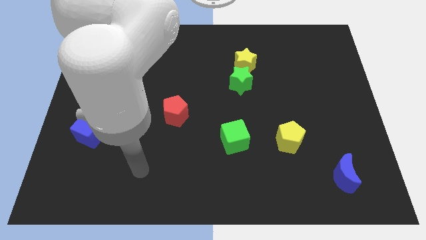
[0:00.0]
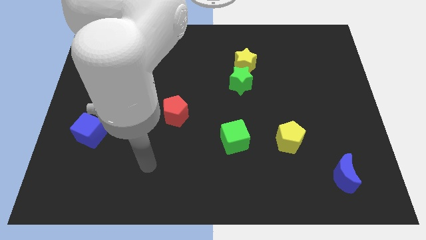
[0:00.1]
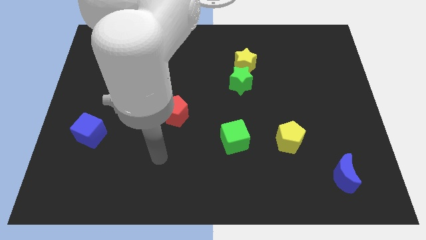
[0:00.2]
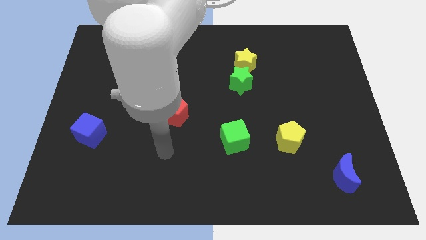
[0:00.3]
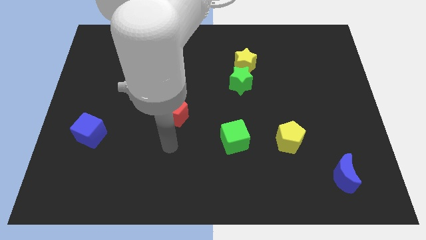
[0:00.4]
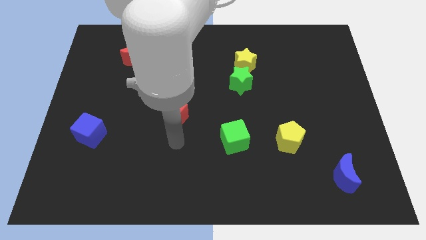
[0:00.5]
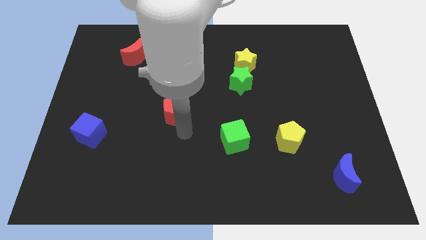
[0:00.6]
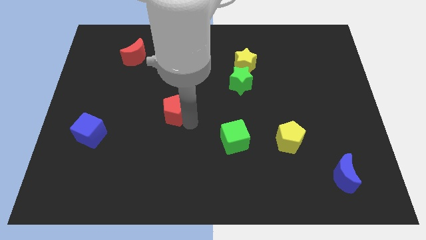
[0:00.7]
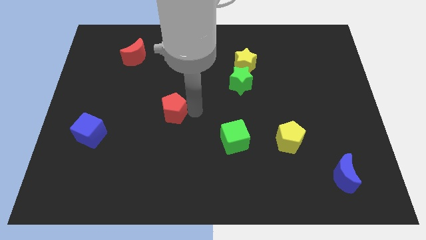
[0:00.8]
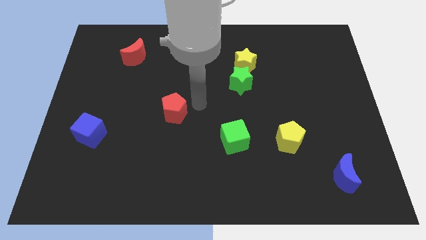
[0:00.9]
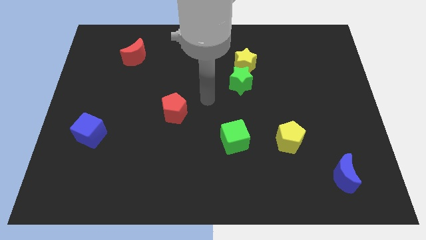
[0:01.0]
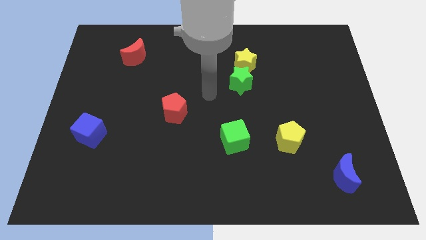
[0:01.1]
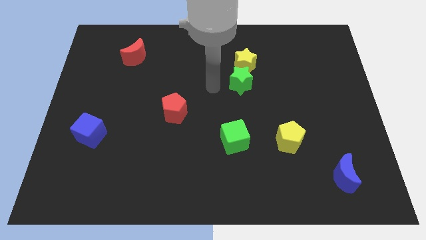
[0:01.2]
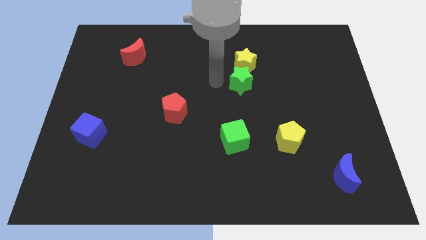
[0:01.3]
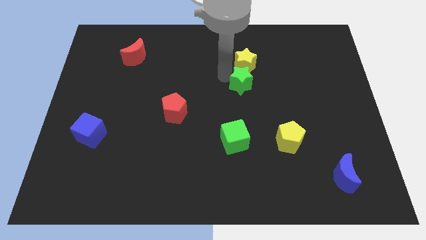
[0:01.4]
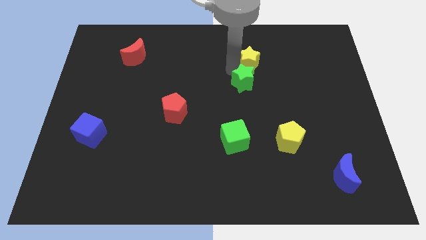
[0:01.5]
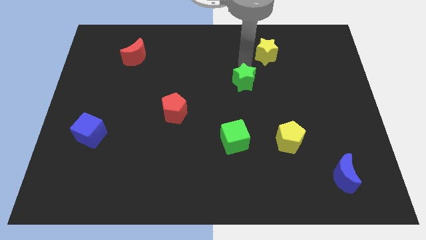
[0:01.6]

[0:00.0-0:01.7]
pull the green star apart from the yellow star

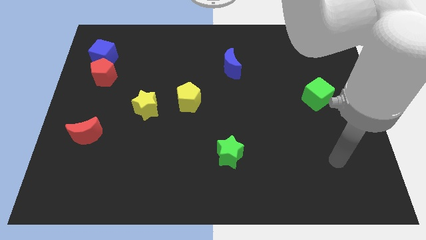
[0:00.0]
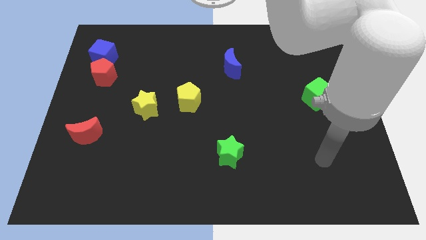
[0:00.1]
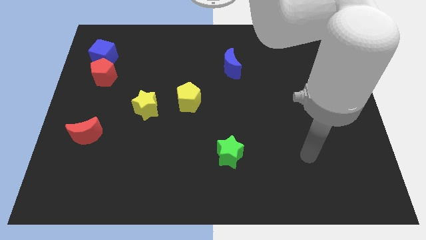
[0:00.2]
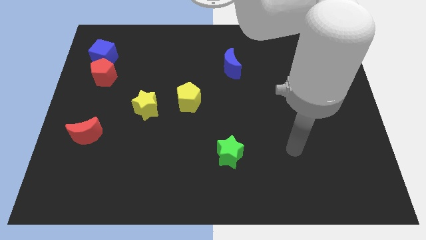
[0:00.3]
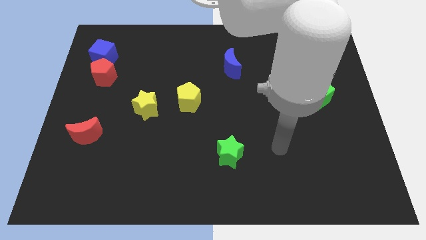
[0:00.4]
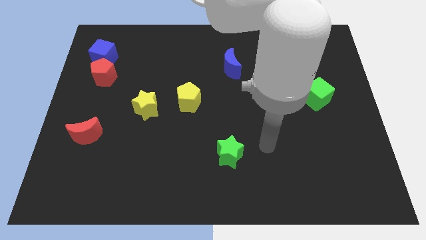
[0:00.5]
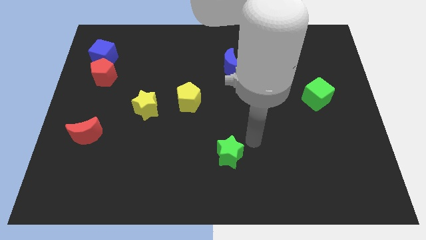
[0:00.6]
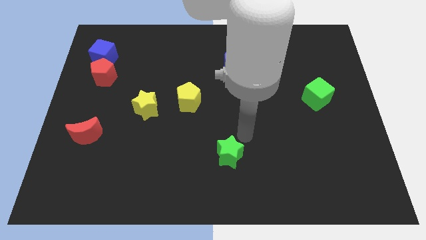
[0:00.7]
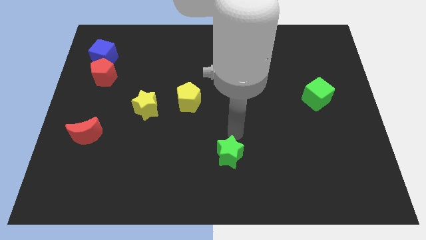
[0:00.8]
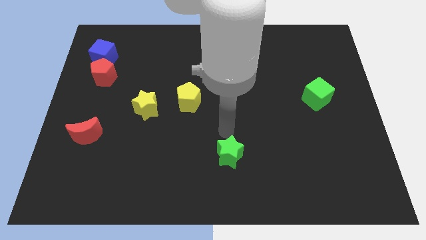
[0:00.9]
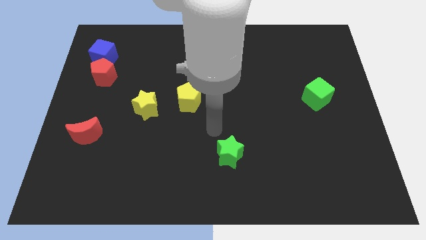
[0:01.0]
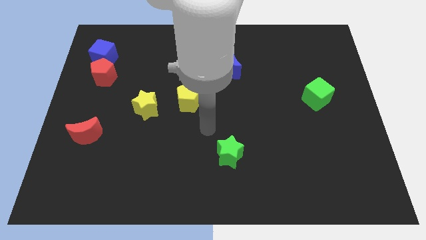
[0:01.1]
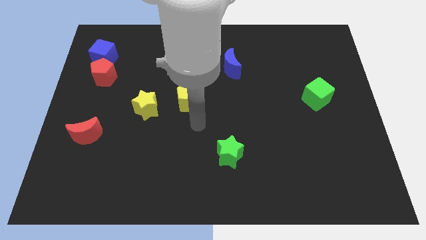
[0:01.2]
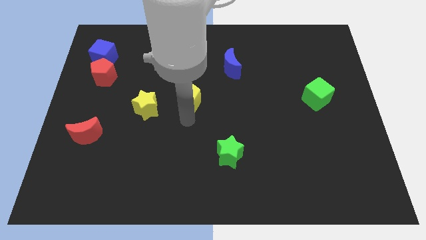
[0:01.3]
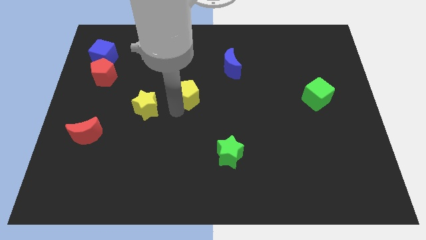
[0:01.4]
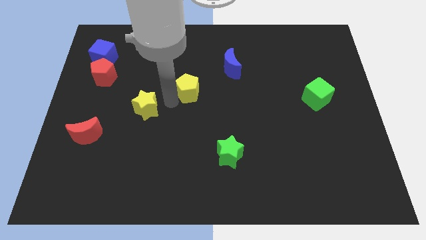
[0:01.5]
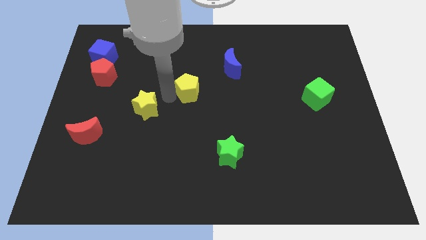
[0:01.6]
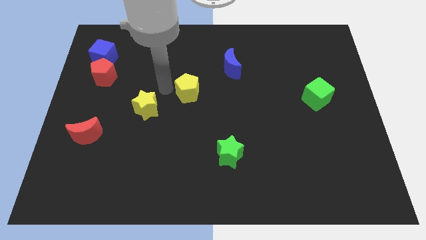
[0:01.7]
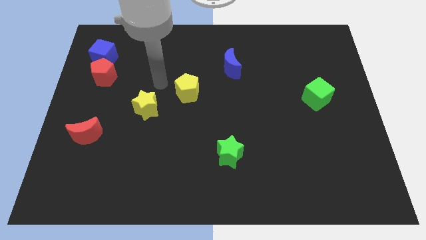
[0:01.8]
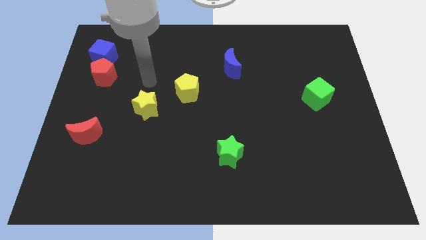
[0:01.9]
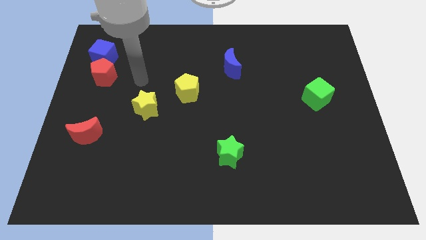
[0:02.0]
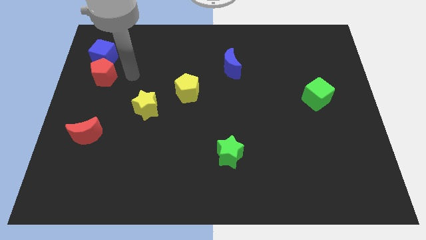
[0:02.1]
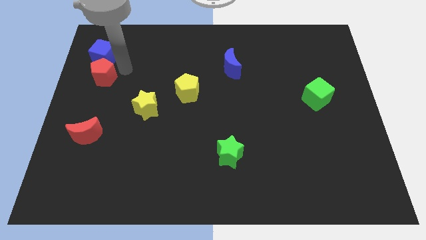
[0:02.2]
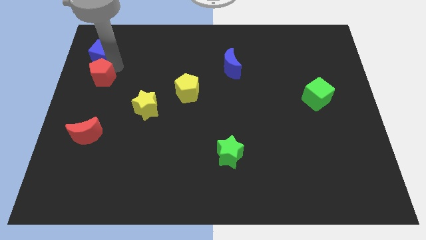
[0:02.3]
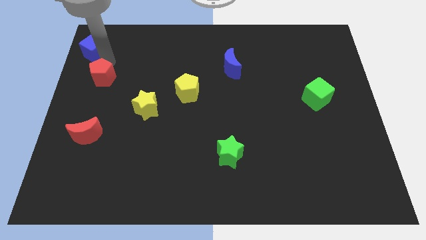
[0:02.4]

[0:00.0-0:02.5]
pull the red pentagon apart from the blue cube

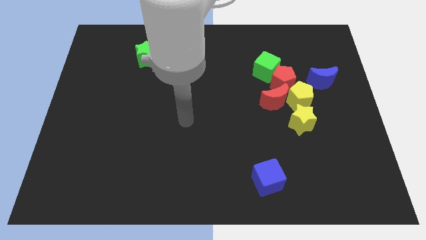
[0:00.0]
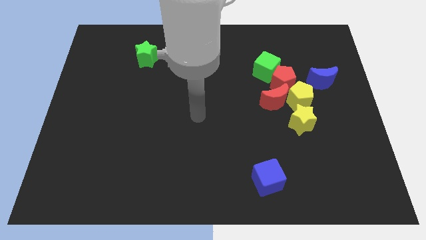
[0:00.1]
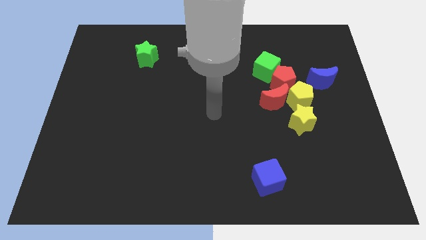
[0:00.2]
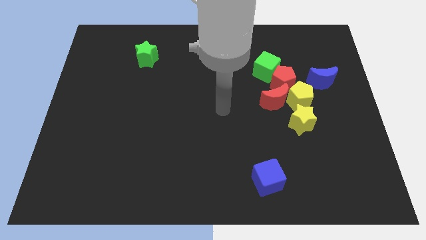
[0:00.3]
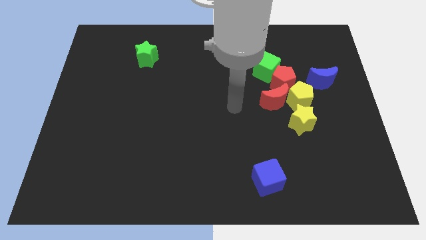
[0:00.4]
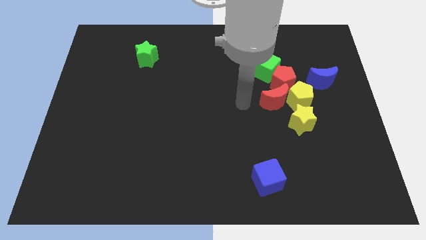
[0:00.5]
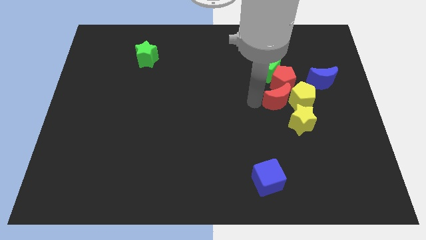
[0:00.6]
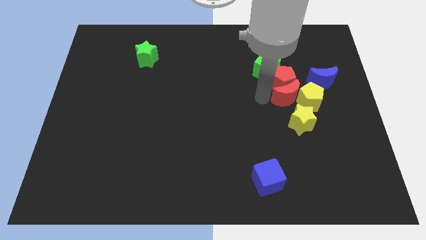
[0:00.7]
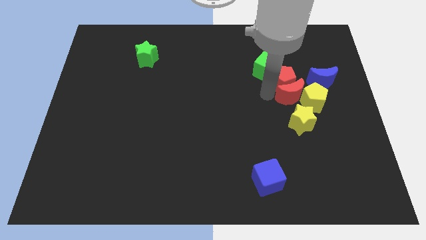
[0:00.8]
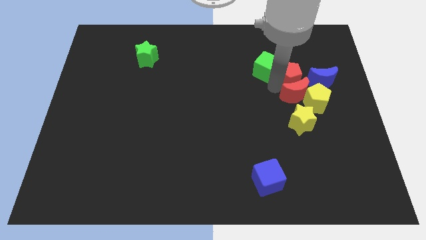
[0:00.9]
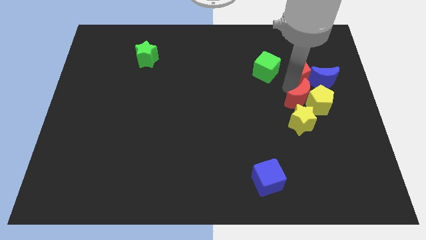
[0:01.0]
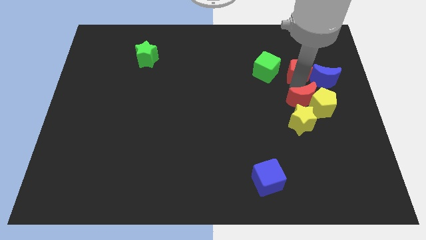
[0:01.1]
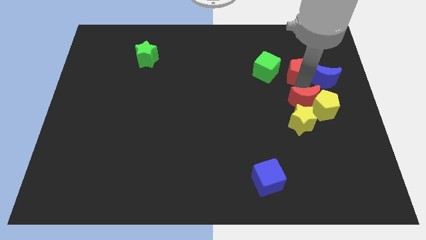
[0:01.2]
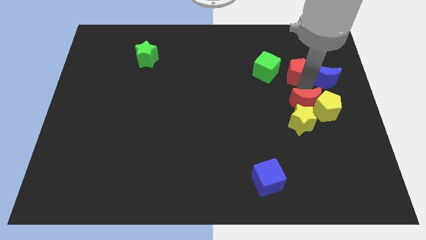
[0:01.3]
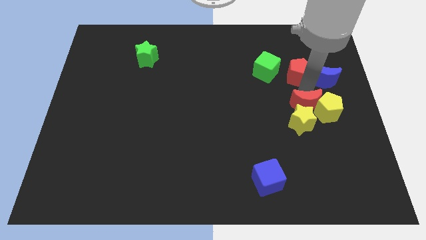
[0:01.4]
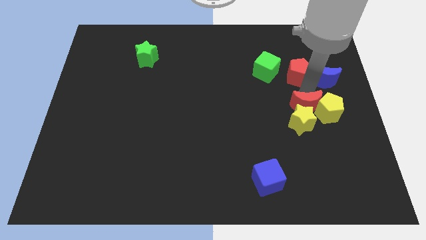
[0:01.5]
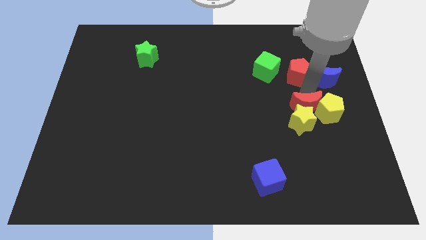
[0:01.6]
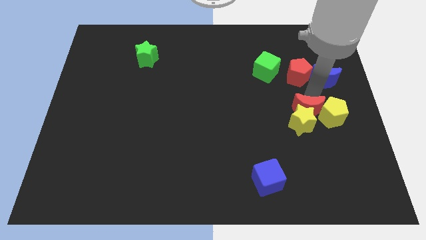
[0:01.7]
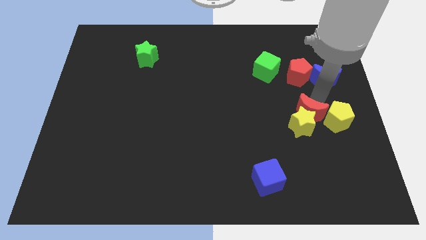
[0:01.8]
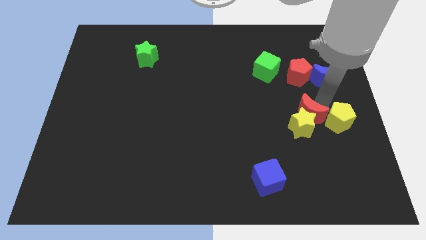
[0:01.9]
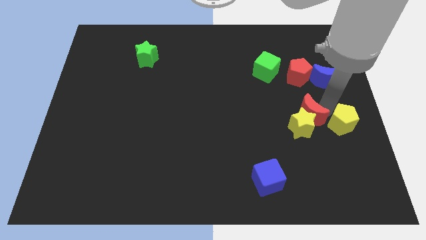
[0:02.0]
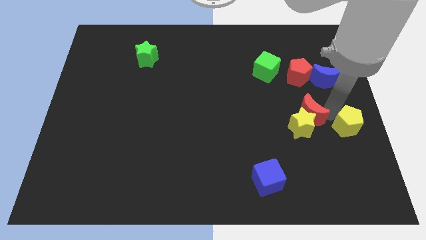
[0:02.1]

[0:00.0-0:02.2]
separate the yellow pentagon from the group of blocks

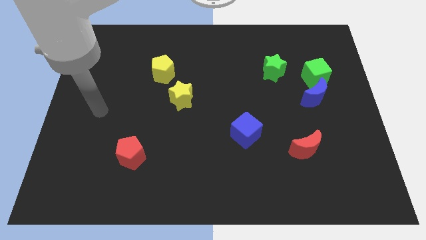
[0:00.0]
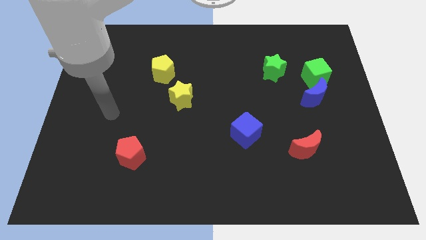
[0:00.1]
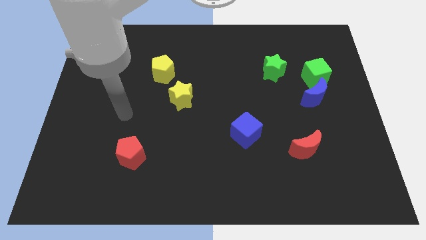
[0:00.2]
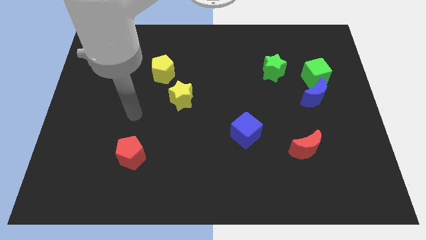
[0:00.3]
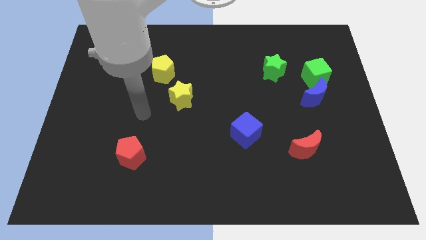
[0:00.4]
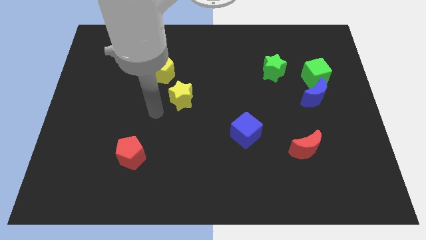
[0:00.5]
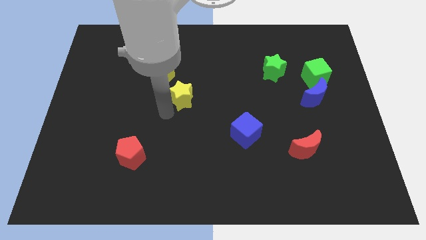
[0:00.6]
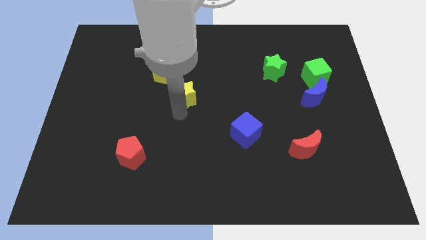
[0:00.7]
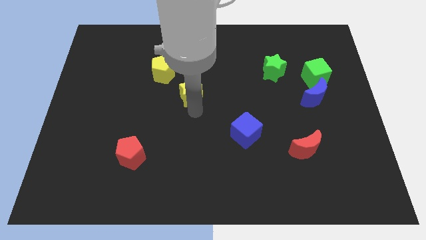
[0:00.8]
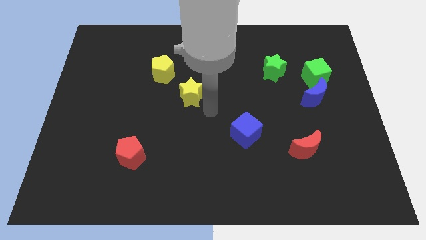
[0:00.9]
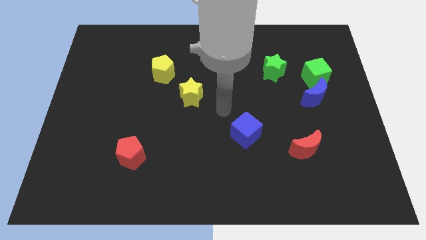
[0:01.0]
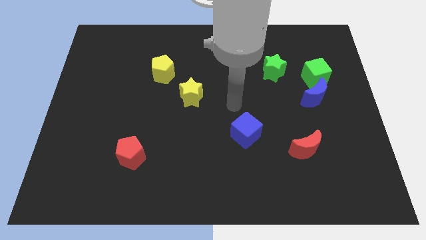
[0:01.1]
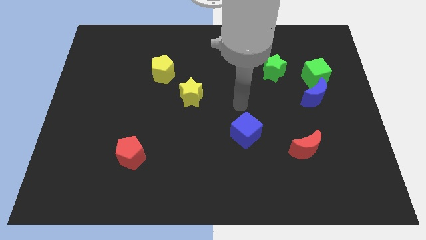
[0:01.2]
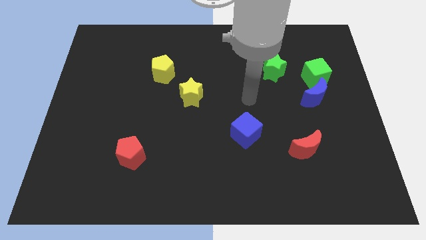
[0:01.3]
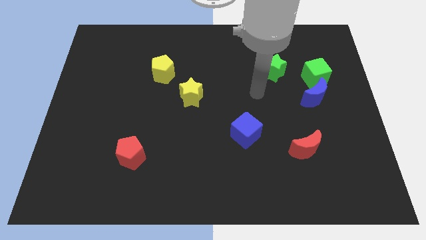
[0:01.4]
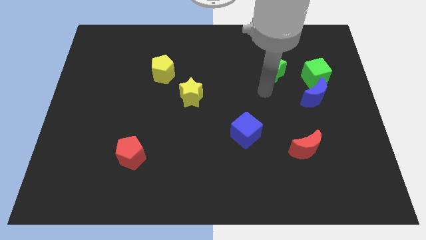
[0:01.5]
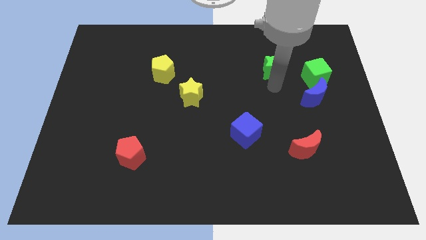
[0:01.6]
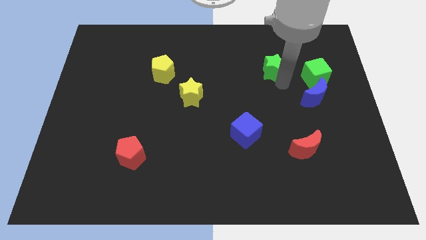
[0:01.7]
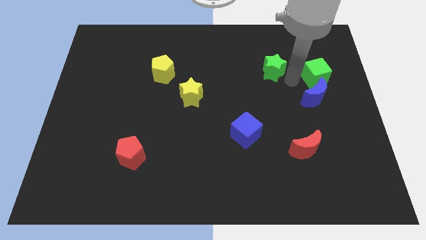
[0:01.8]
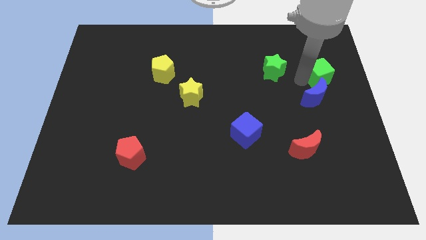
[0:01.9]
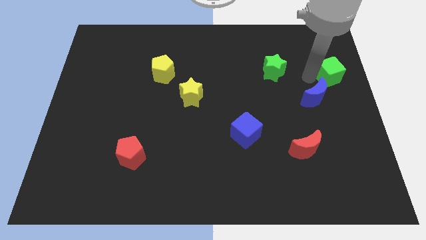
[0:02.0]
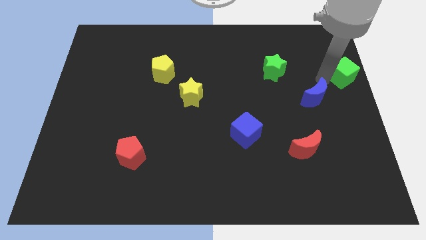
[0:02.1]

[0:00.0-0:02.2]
pull the blue moon apart from the green cube

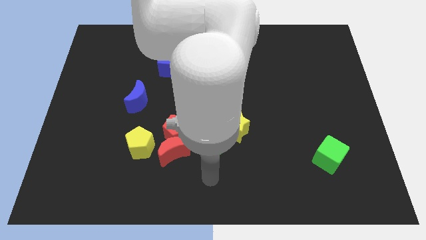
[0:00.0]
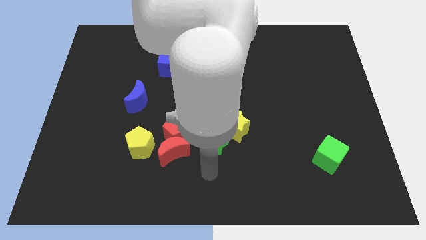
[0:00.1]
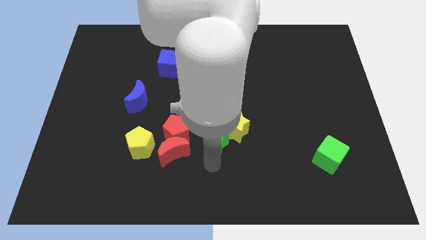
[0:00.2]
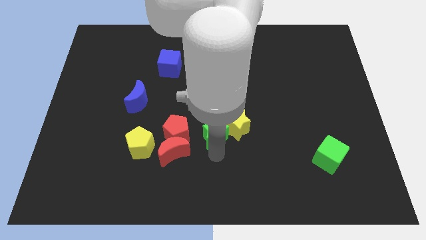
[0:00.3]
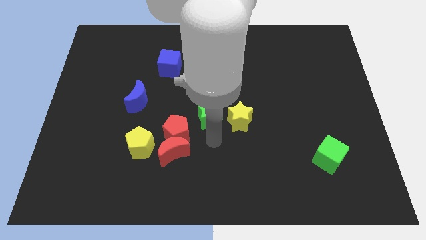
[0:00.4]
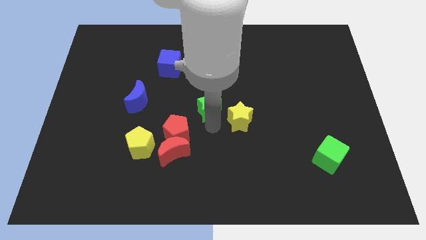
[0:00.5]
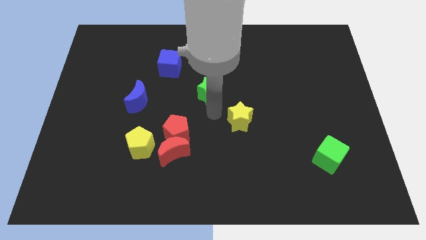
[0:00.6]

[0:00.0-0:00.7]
pull the yellow star apart from the green star
